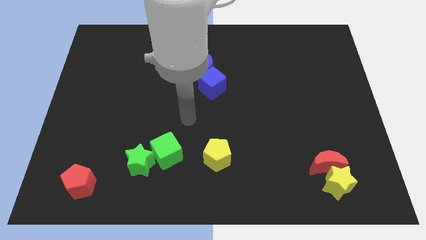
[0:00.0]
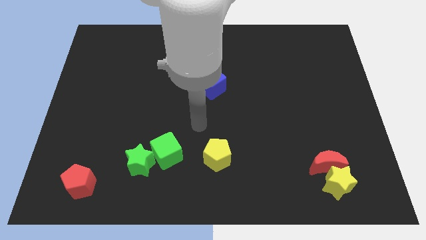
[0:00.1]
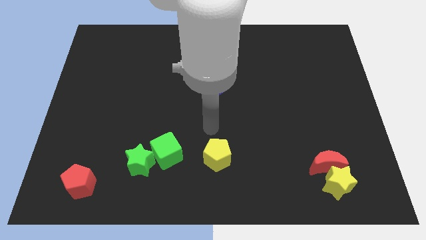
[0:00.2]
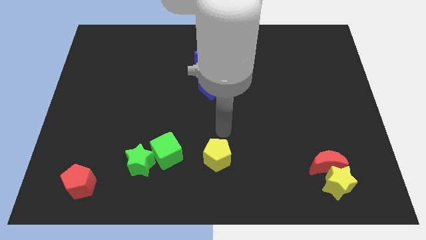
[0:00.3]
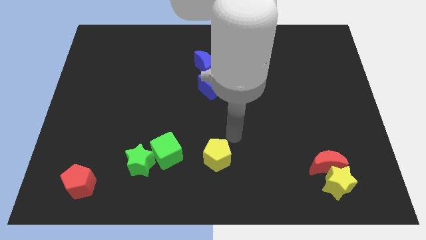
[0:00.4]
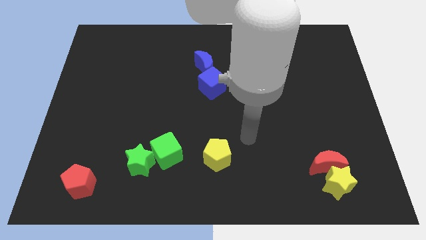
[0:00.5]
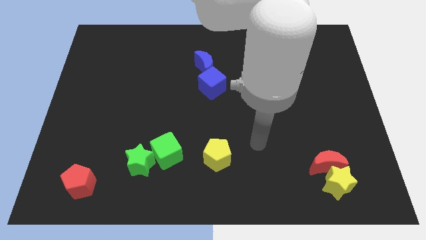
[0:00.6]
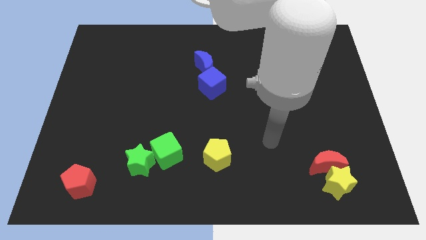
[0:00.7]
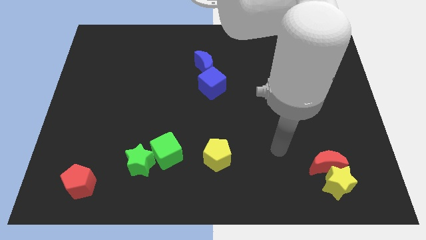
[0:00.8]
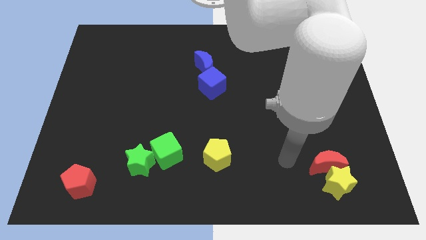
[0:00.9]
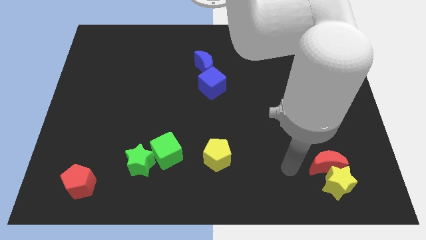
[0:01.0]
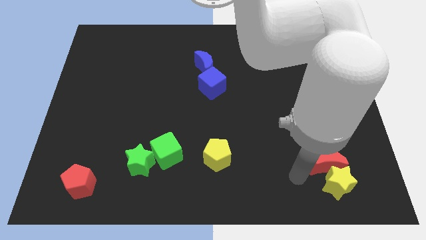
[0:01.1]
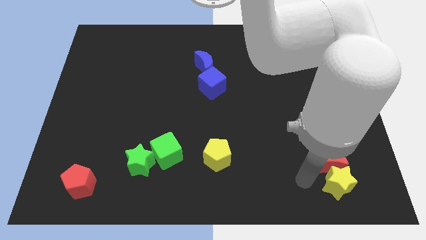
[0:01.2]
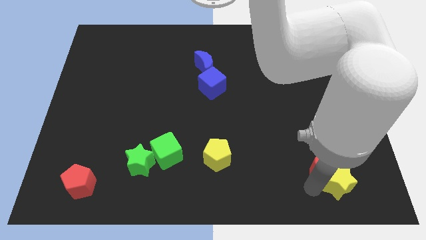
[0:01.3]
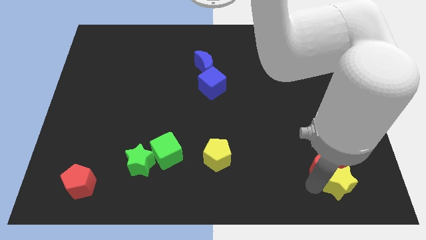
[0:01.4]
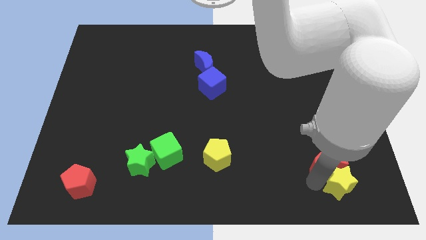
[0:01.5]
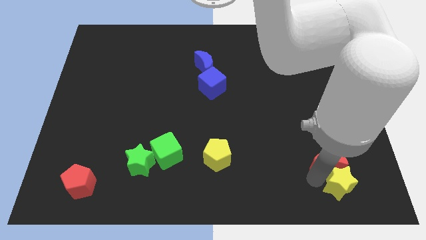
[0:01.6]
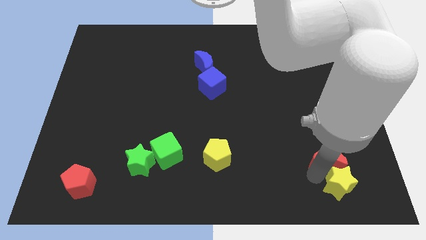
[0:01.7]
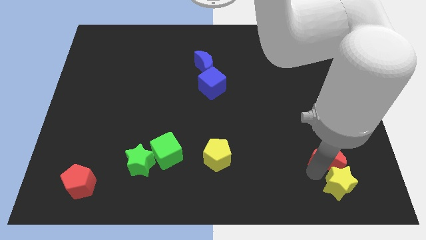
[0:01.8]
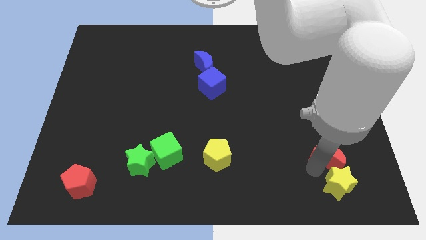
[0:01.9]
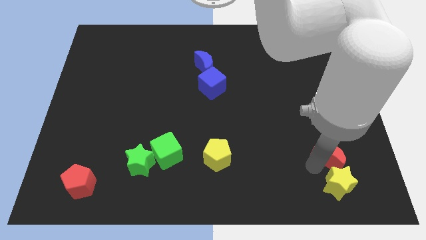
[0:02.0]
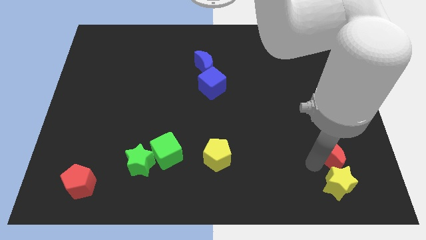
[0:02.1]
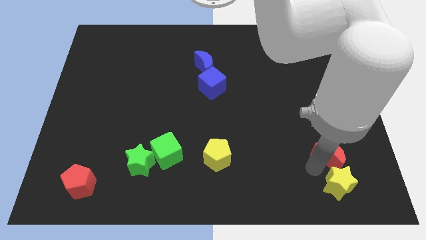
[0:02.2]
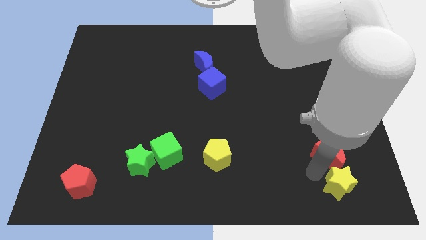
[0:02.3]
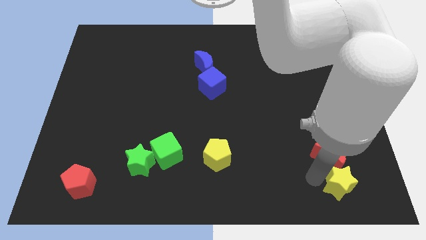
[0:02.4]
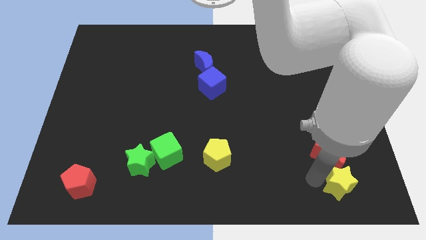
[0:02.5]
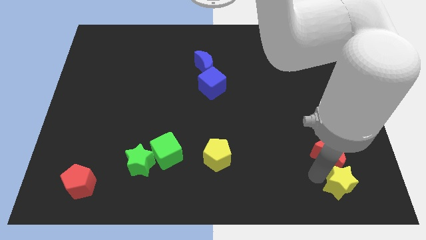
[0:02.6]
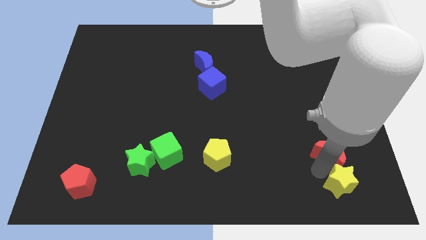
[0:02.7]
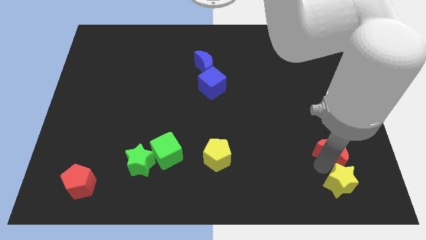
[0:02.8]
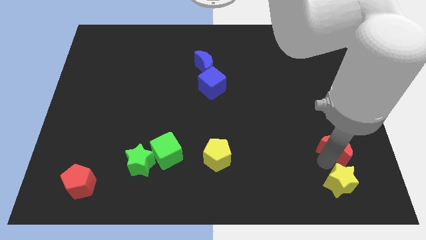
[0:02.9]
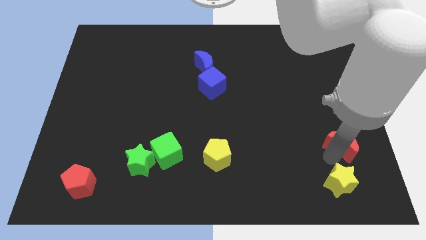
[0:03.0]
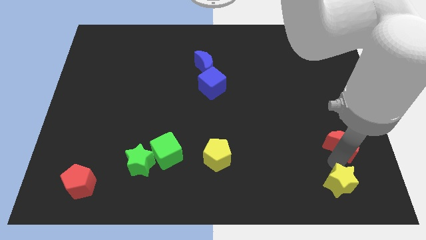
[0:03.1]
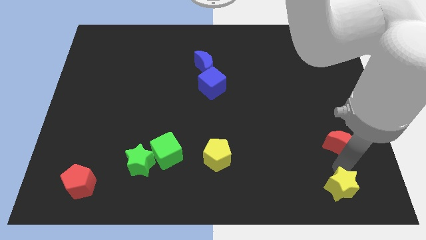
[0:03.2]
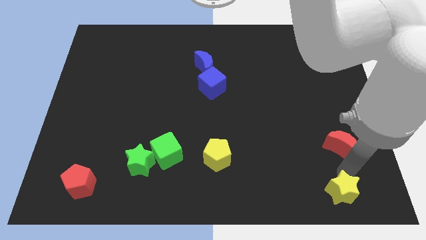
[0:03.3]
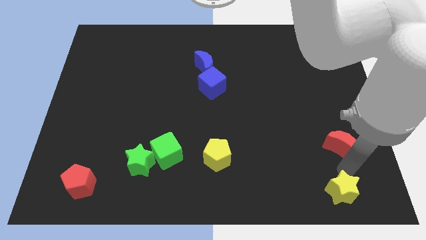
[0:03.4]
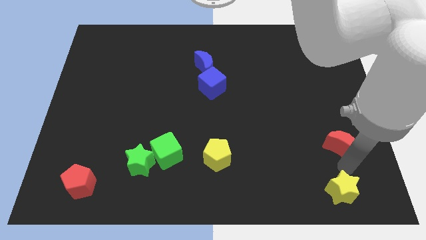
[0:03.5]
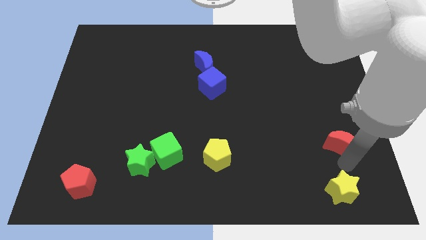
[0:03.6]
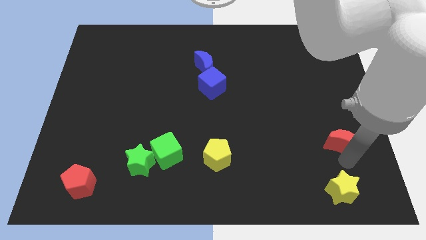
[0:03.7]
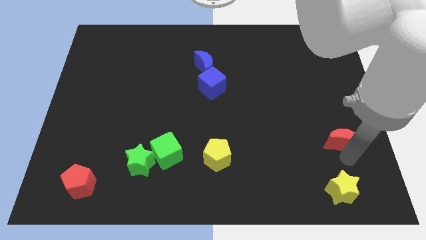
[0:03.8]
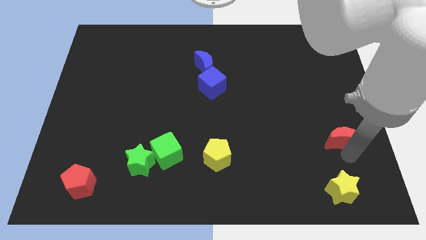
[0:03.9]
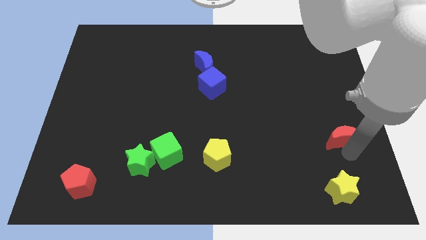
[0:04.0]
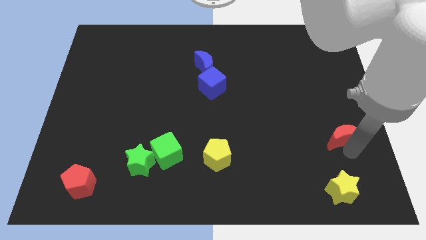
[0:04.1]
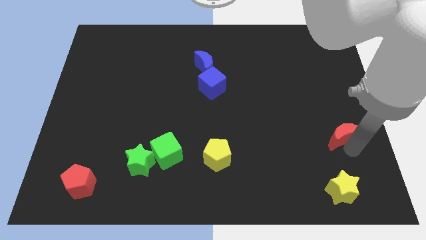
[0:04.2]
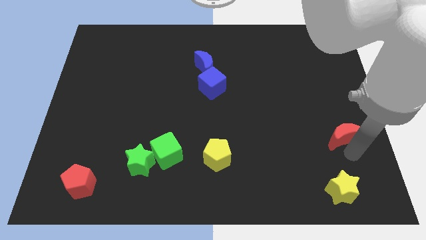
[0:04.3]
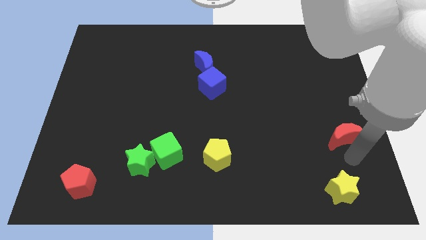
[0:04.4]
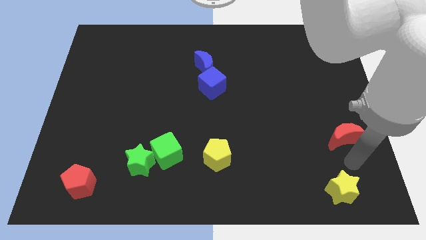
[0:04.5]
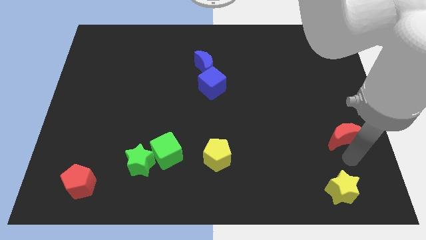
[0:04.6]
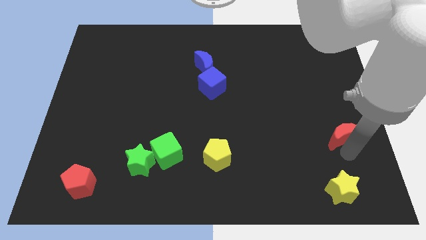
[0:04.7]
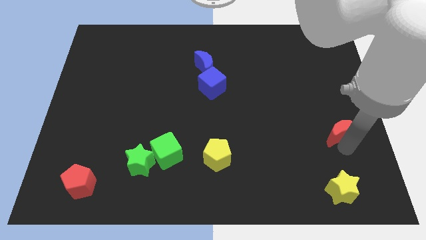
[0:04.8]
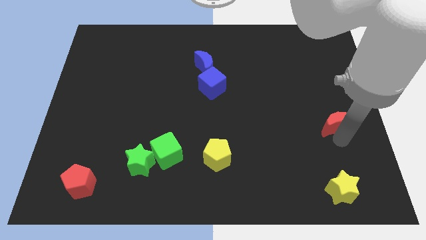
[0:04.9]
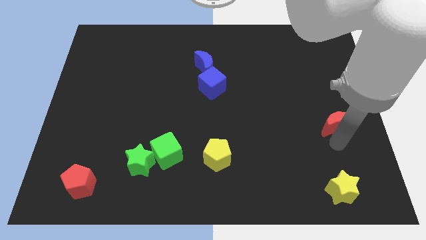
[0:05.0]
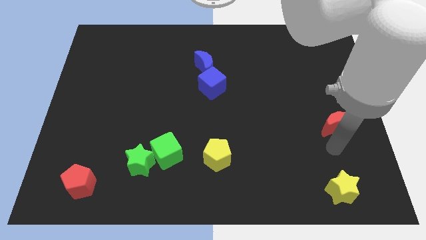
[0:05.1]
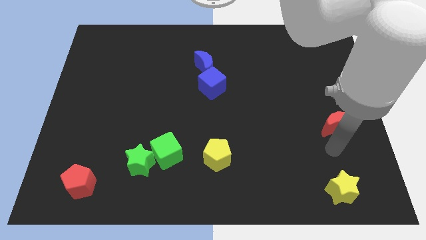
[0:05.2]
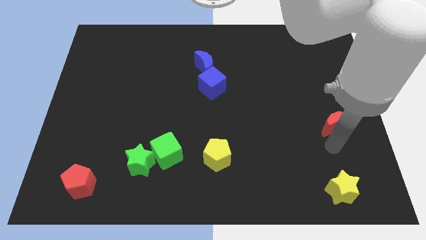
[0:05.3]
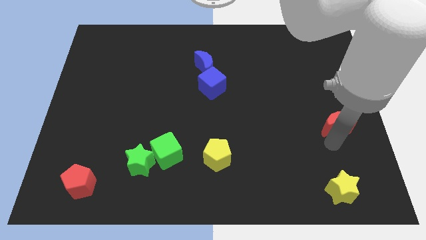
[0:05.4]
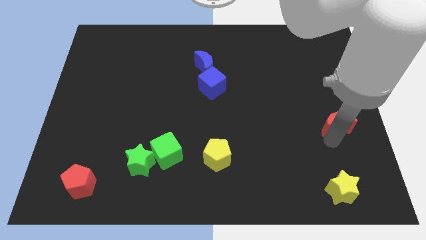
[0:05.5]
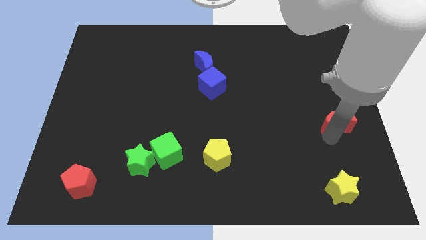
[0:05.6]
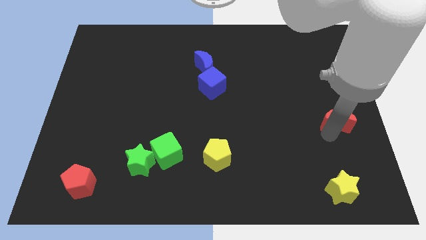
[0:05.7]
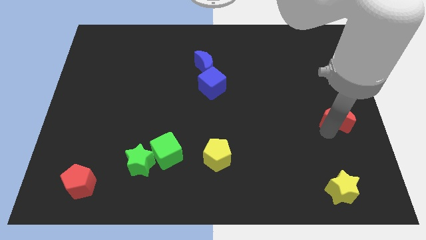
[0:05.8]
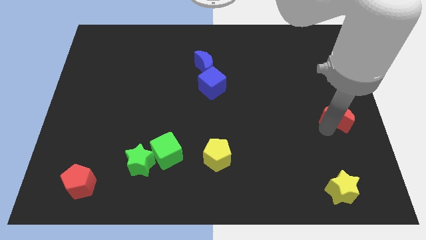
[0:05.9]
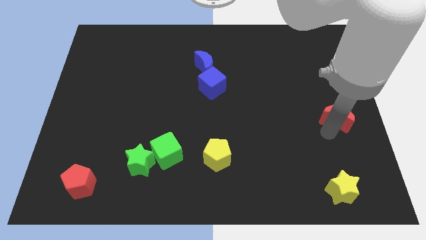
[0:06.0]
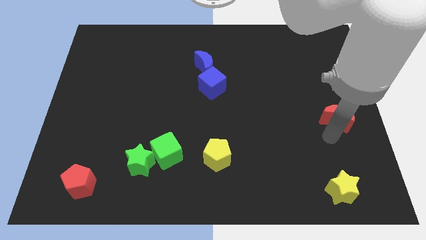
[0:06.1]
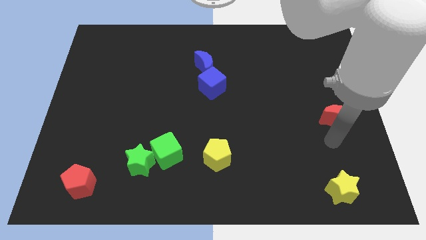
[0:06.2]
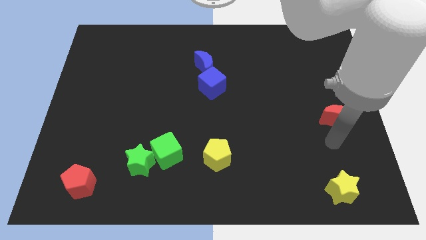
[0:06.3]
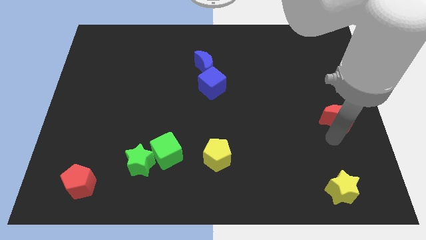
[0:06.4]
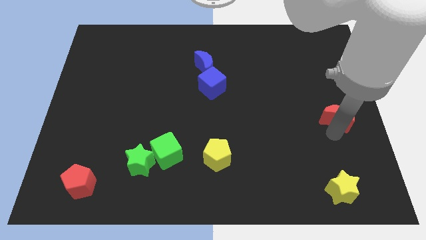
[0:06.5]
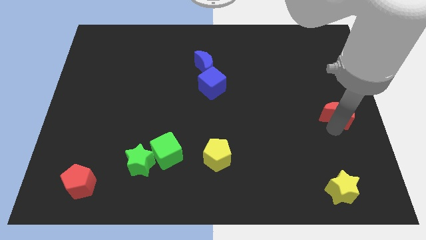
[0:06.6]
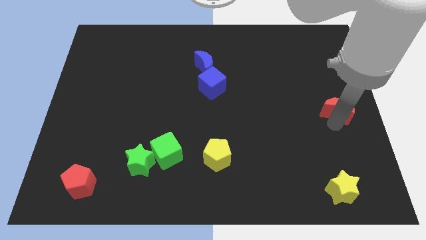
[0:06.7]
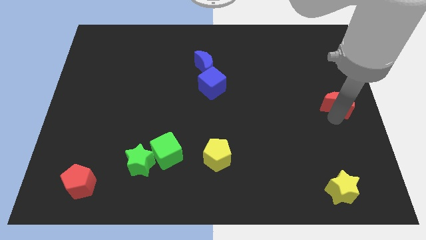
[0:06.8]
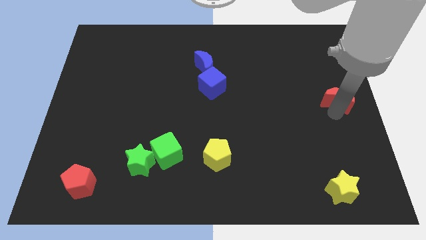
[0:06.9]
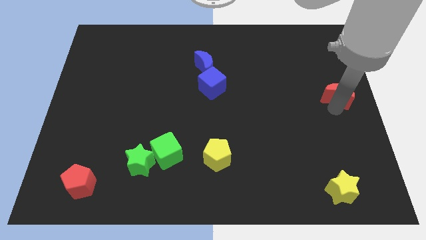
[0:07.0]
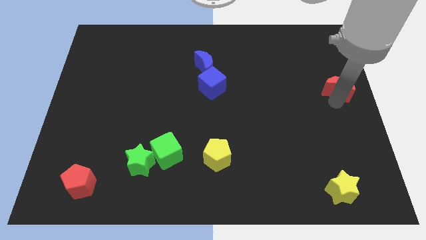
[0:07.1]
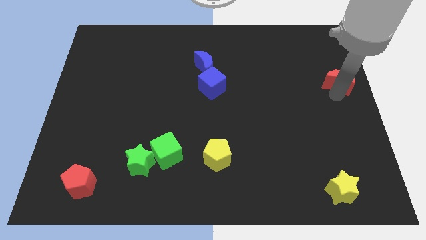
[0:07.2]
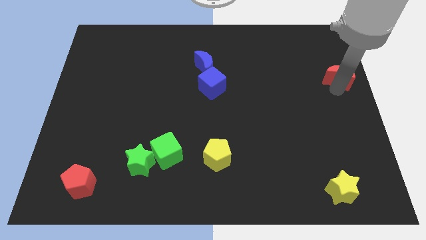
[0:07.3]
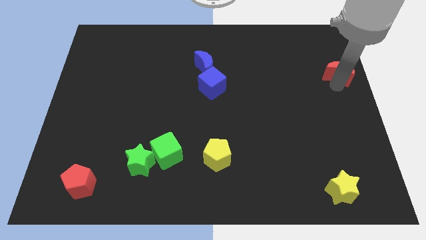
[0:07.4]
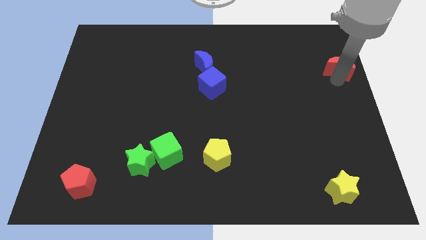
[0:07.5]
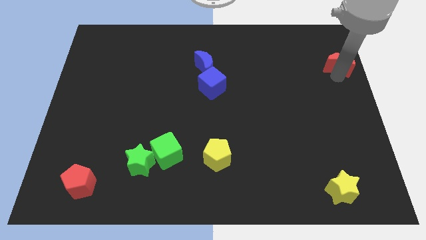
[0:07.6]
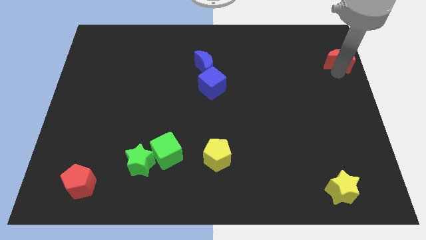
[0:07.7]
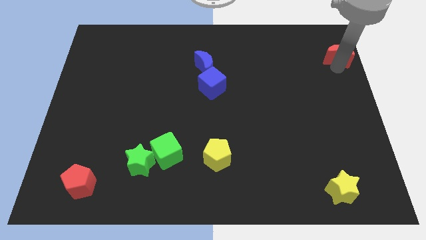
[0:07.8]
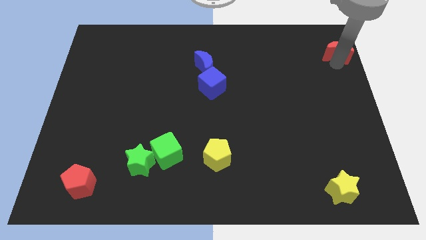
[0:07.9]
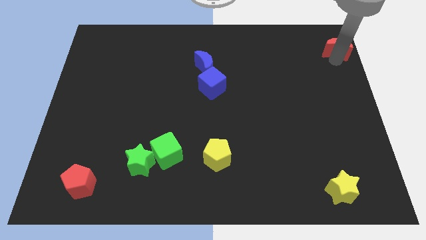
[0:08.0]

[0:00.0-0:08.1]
move the red moon to the top right corner
